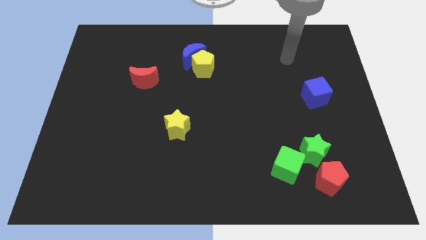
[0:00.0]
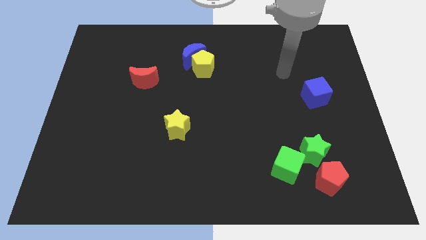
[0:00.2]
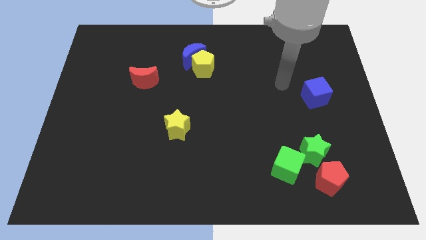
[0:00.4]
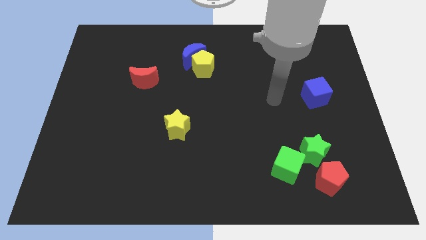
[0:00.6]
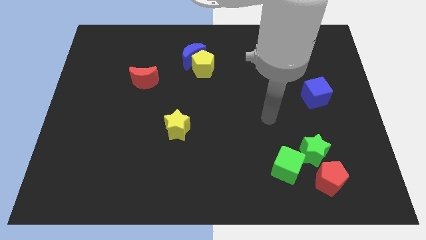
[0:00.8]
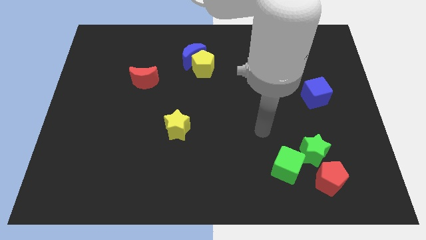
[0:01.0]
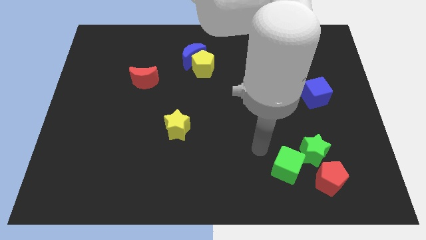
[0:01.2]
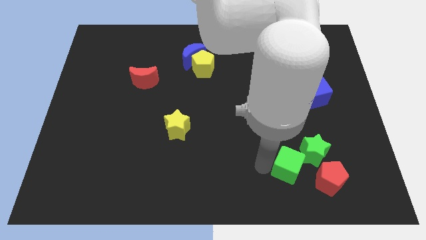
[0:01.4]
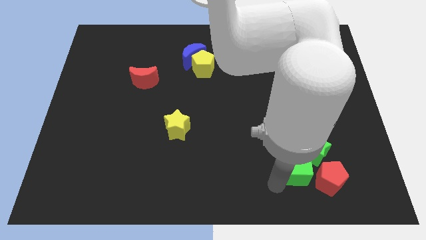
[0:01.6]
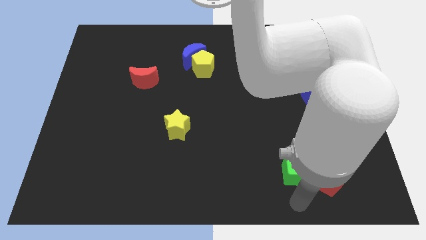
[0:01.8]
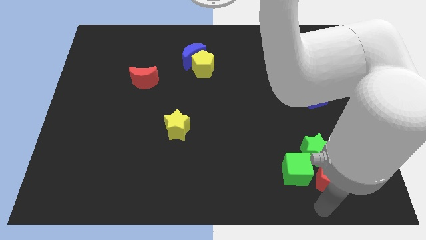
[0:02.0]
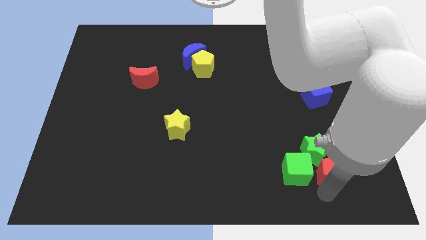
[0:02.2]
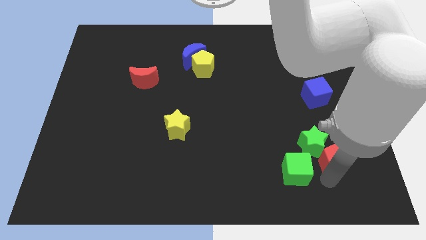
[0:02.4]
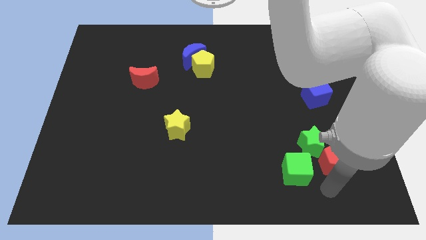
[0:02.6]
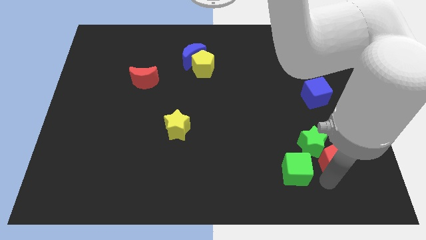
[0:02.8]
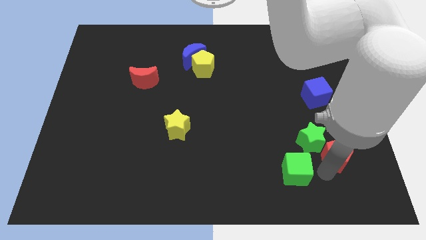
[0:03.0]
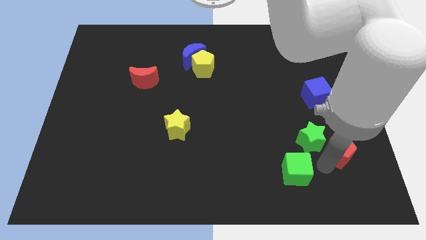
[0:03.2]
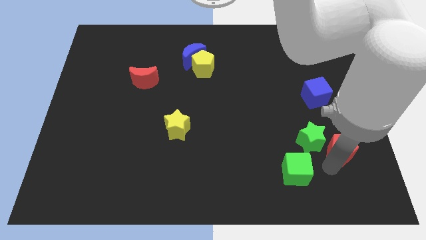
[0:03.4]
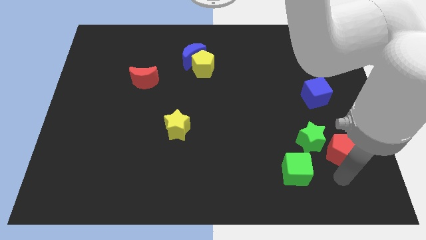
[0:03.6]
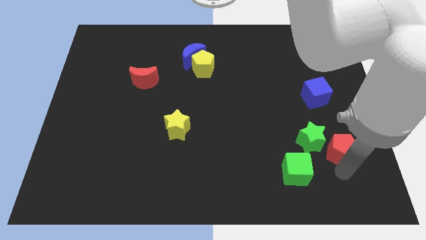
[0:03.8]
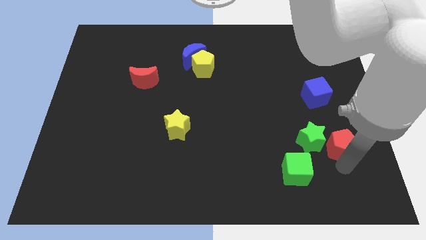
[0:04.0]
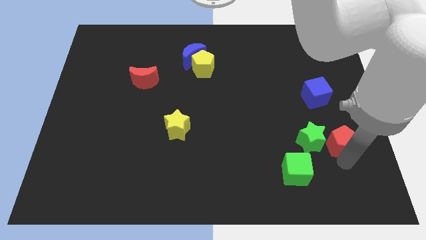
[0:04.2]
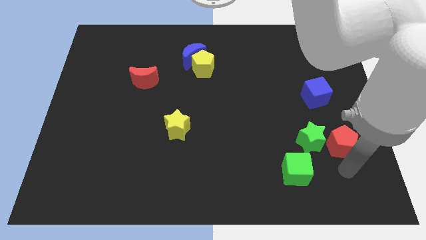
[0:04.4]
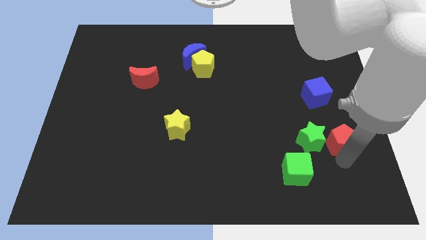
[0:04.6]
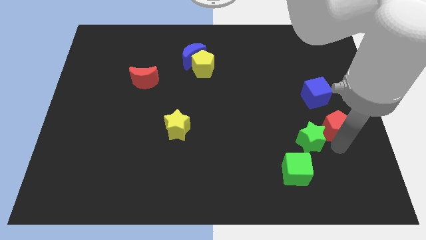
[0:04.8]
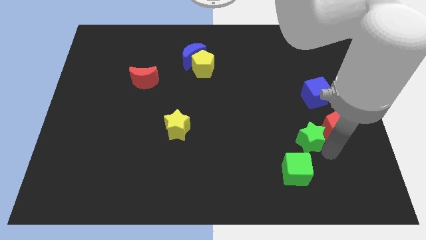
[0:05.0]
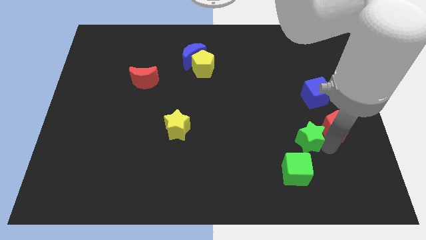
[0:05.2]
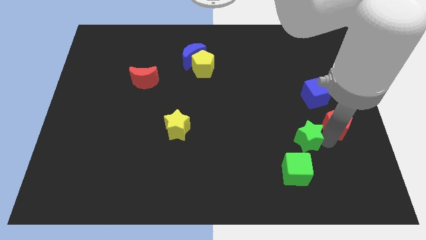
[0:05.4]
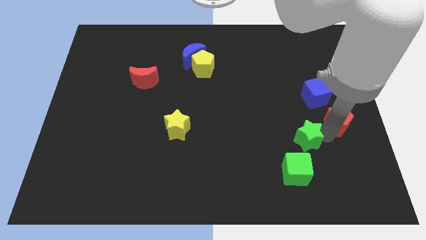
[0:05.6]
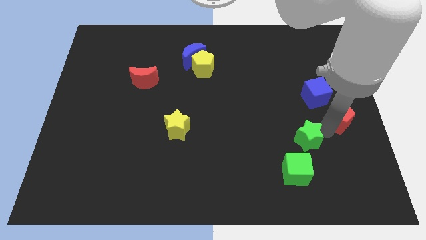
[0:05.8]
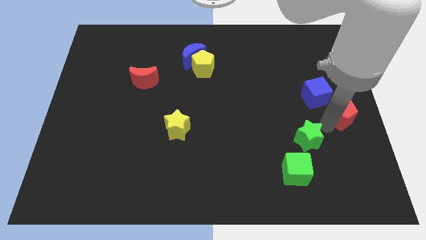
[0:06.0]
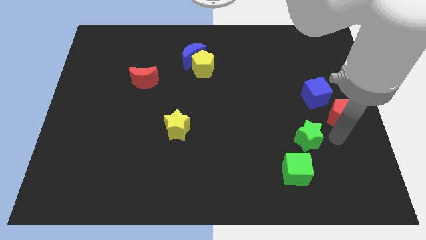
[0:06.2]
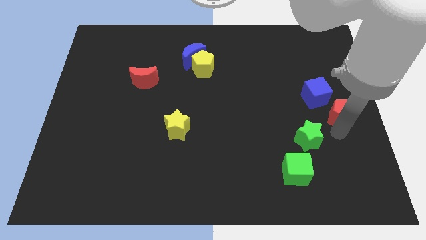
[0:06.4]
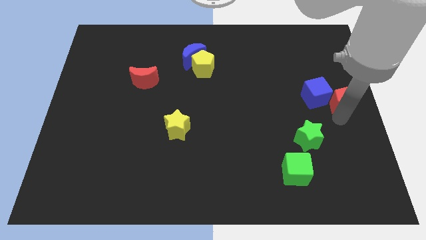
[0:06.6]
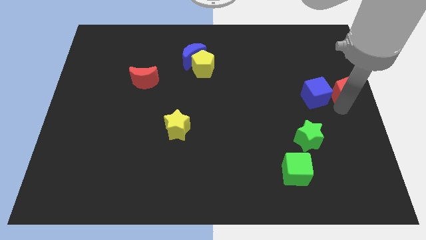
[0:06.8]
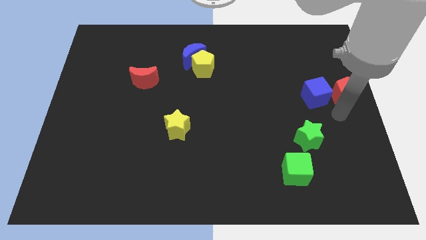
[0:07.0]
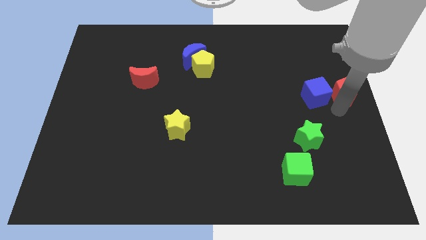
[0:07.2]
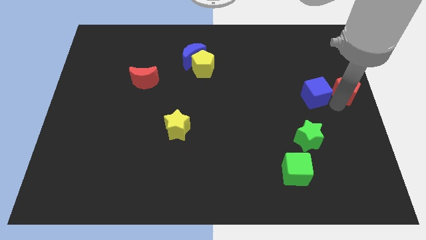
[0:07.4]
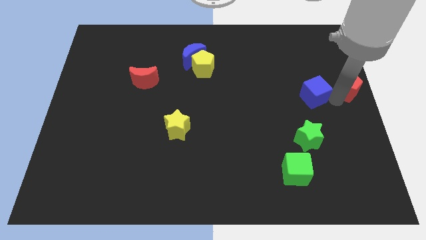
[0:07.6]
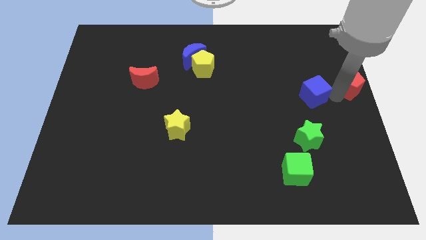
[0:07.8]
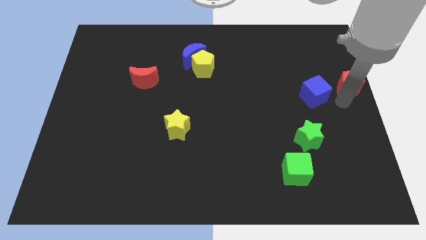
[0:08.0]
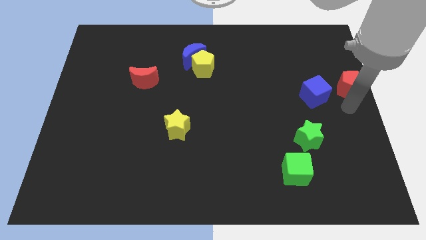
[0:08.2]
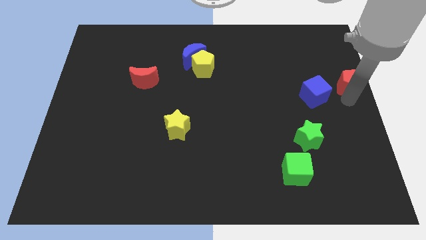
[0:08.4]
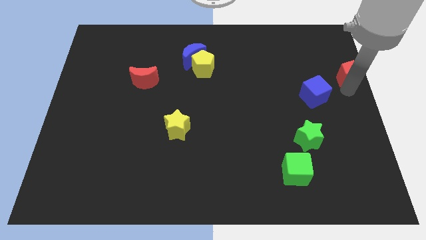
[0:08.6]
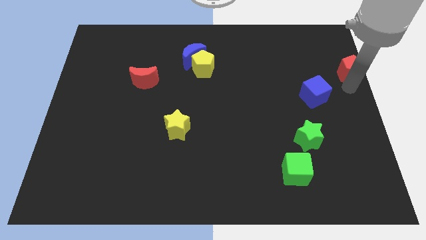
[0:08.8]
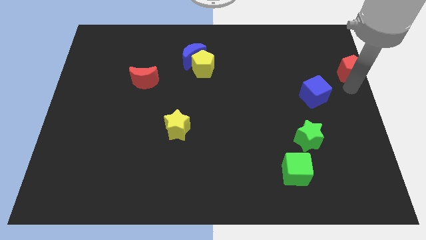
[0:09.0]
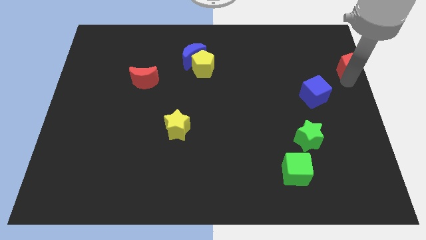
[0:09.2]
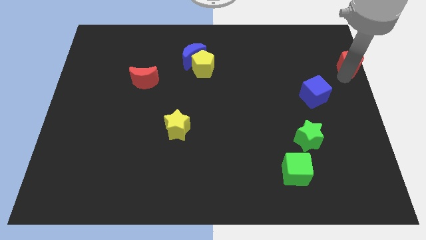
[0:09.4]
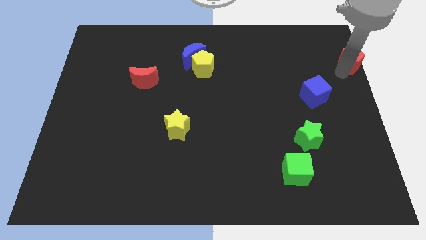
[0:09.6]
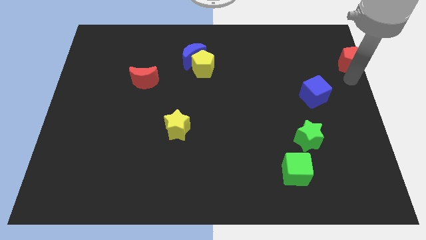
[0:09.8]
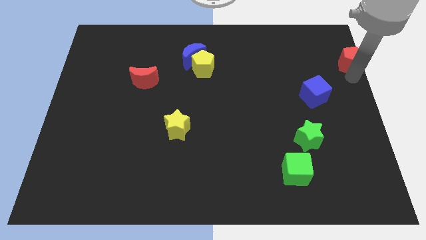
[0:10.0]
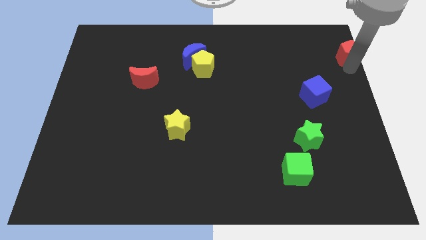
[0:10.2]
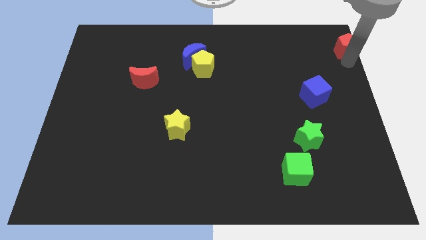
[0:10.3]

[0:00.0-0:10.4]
slide the red pentagon to the top right corner

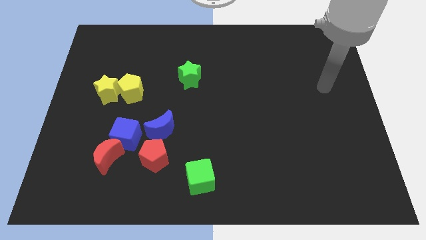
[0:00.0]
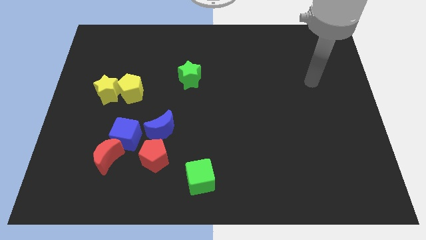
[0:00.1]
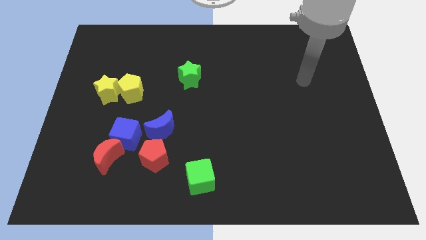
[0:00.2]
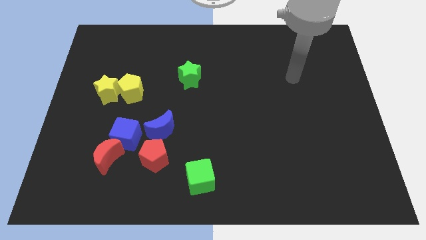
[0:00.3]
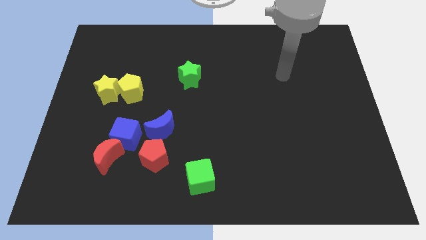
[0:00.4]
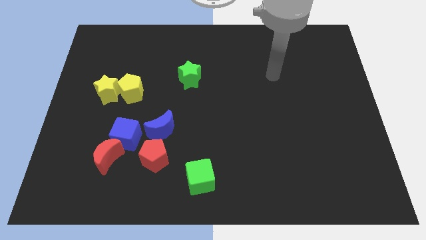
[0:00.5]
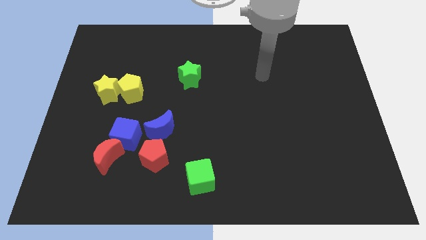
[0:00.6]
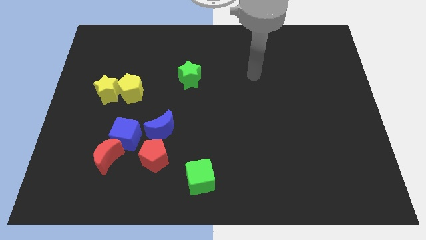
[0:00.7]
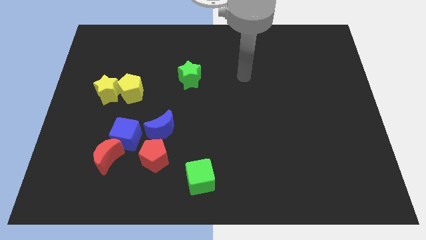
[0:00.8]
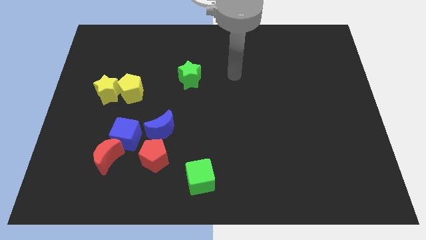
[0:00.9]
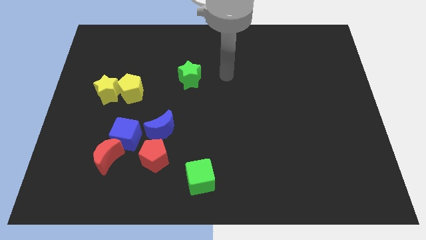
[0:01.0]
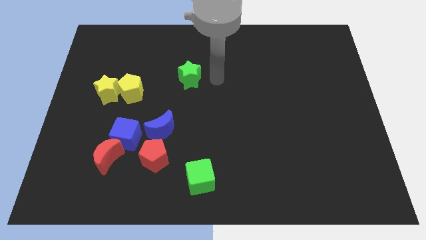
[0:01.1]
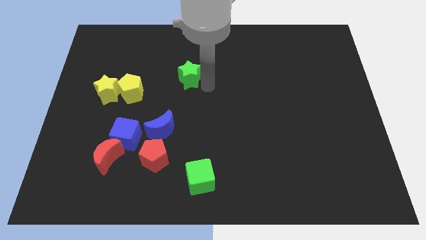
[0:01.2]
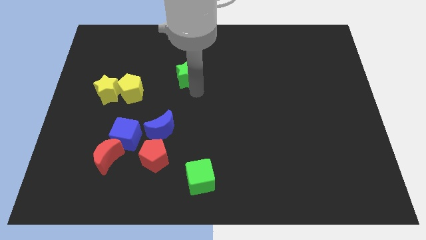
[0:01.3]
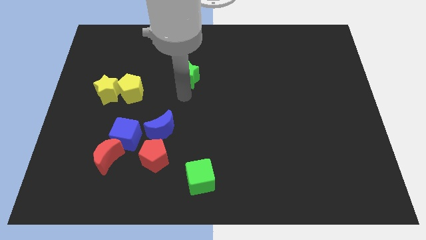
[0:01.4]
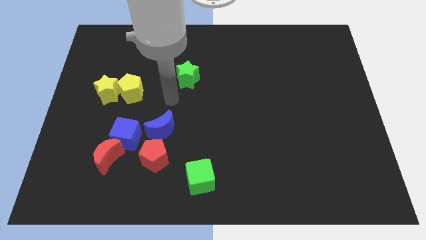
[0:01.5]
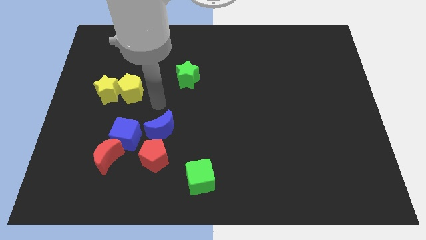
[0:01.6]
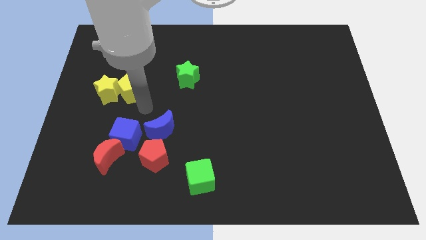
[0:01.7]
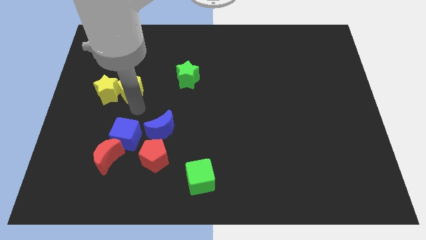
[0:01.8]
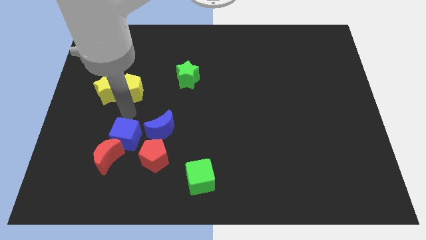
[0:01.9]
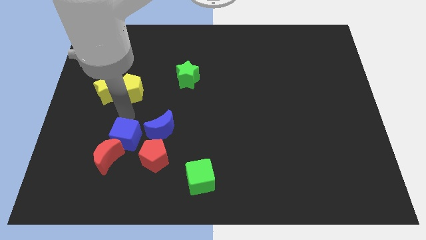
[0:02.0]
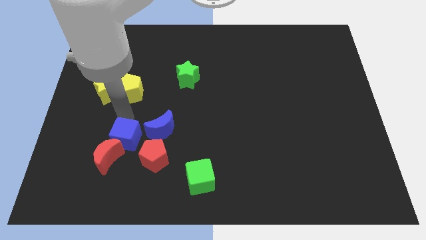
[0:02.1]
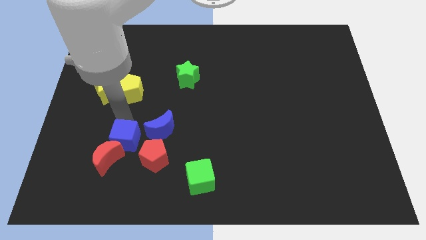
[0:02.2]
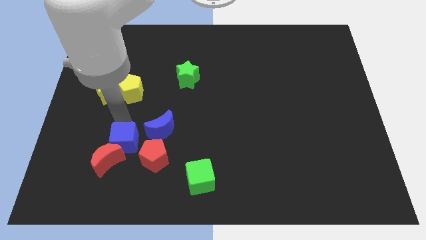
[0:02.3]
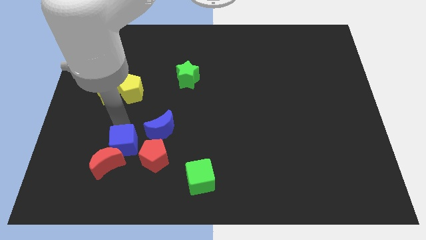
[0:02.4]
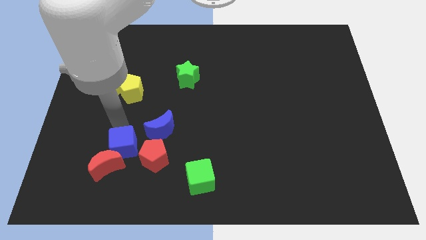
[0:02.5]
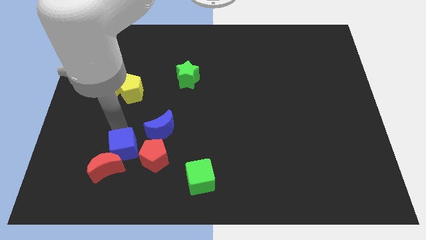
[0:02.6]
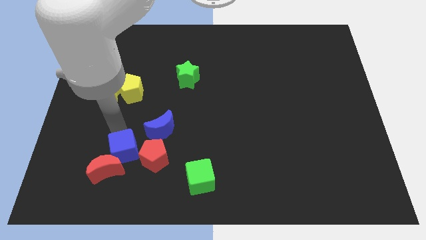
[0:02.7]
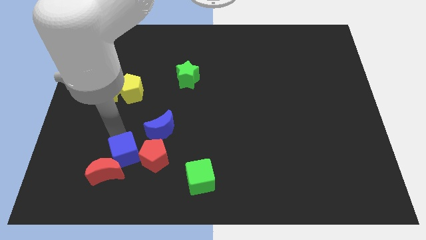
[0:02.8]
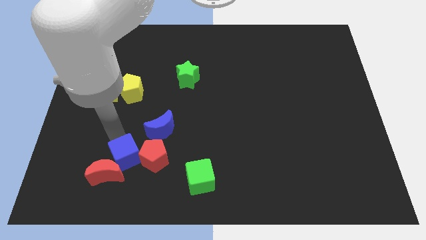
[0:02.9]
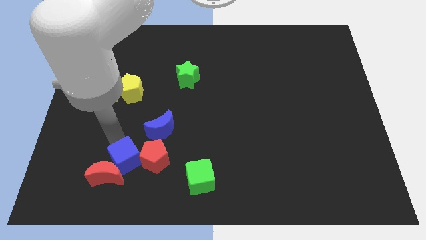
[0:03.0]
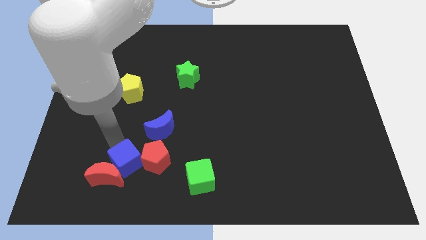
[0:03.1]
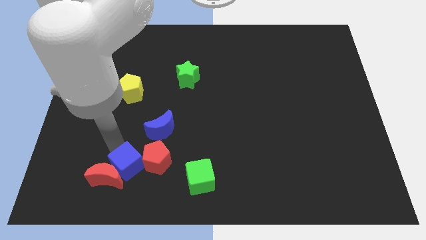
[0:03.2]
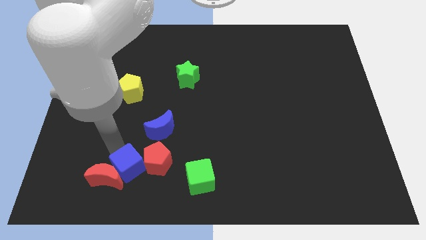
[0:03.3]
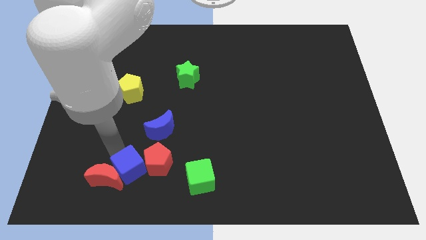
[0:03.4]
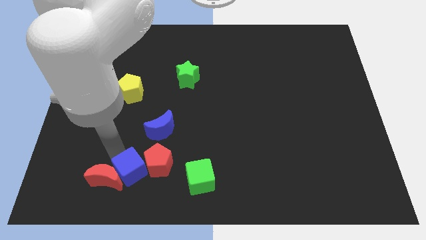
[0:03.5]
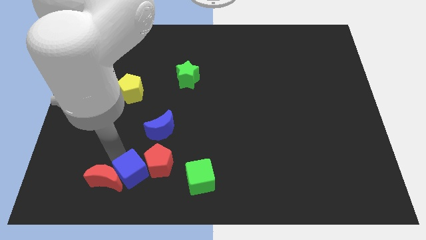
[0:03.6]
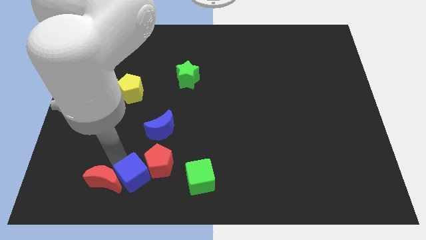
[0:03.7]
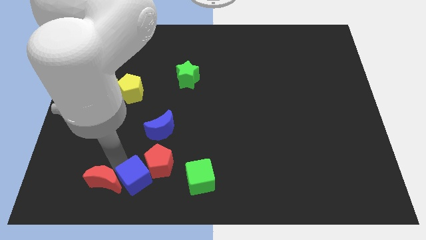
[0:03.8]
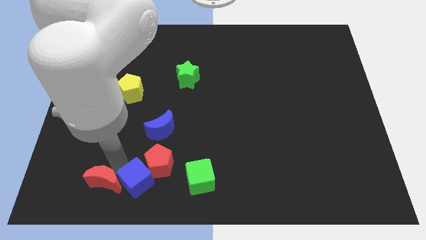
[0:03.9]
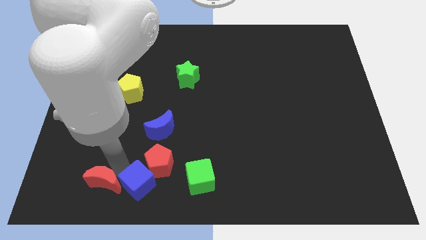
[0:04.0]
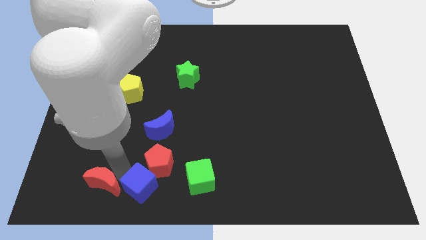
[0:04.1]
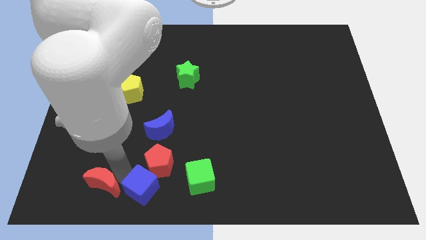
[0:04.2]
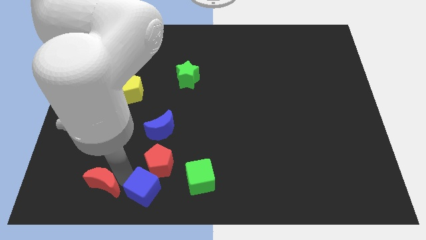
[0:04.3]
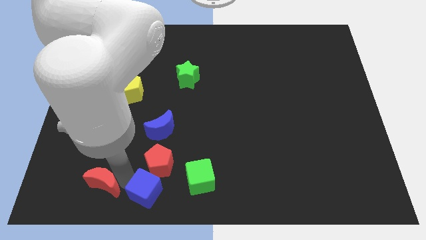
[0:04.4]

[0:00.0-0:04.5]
put the blue cube to the bottom side
